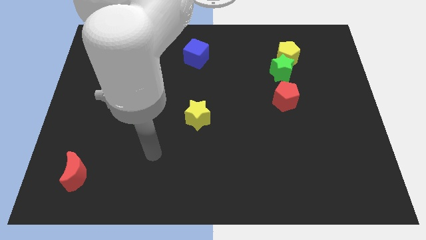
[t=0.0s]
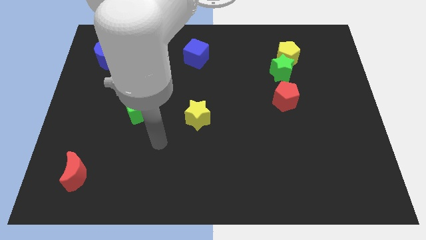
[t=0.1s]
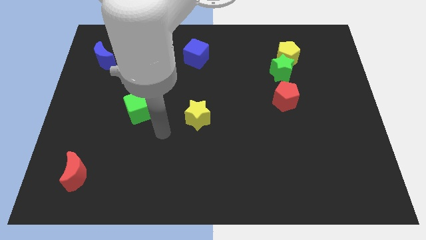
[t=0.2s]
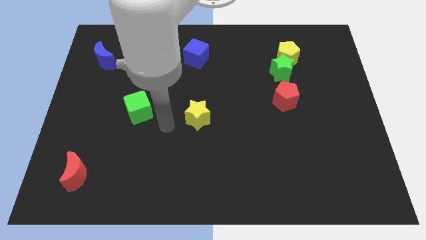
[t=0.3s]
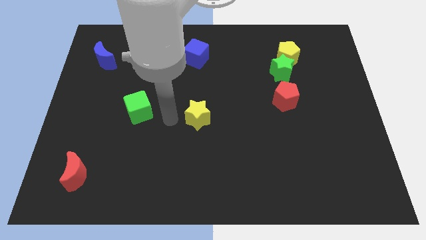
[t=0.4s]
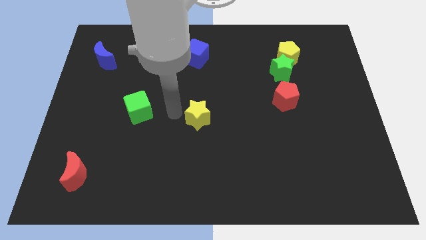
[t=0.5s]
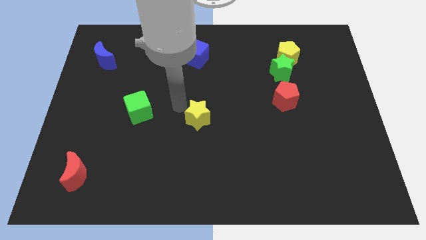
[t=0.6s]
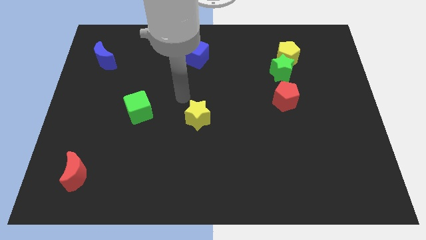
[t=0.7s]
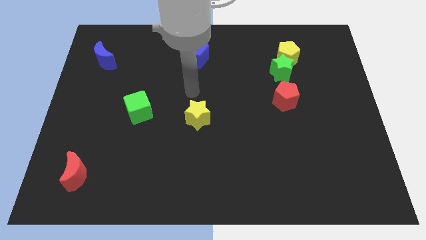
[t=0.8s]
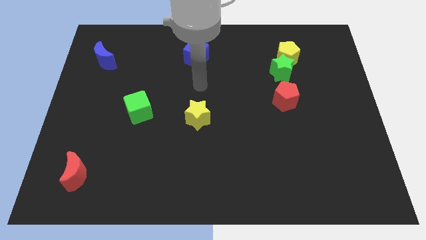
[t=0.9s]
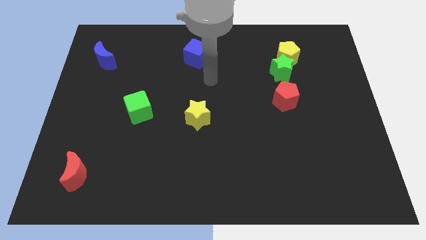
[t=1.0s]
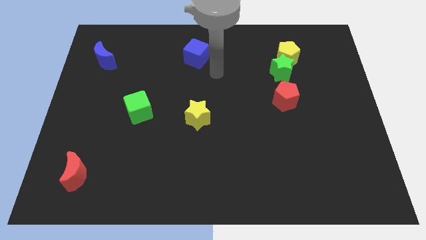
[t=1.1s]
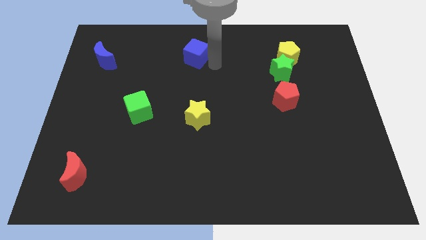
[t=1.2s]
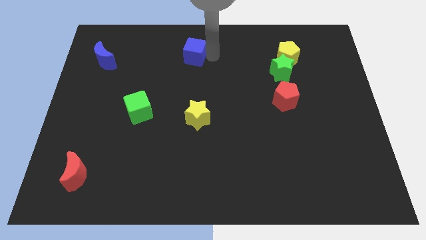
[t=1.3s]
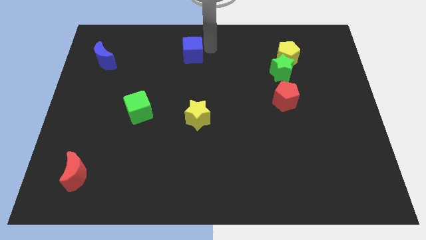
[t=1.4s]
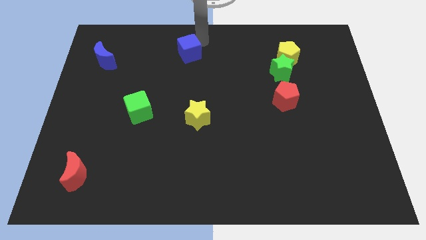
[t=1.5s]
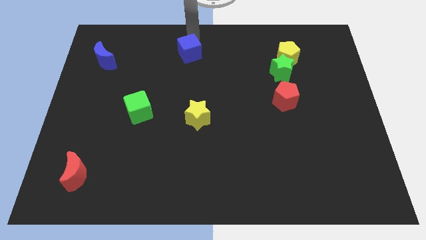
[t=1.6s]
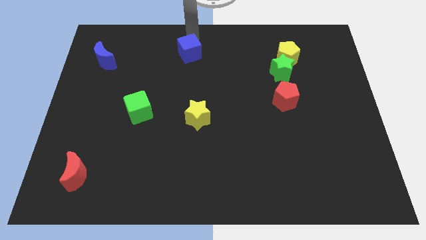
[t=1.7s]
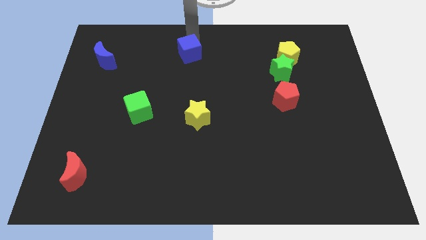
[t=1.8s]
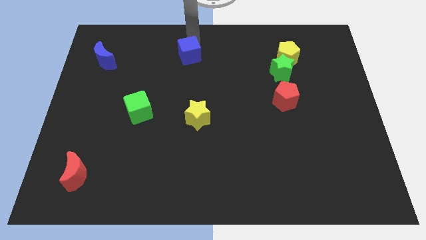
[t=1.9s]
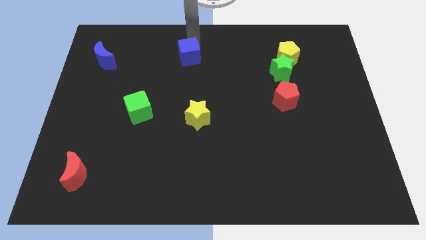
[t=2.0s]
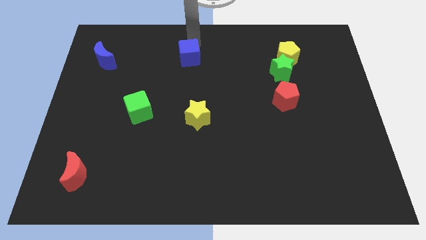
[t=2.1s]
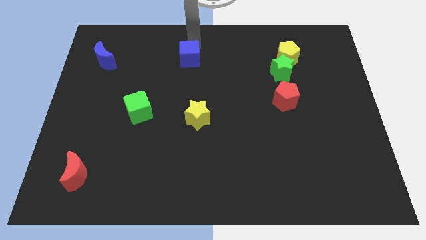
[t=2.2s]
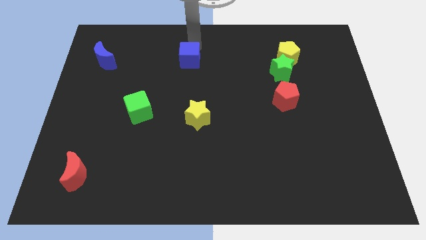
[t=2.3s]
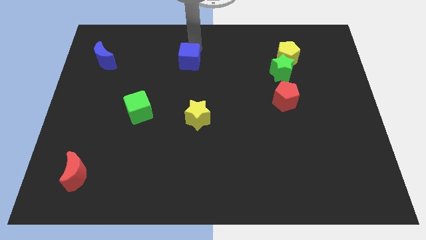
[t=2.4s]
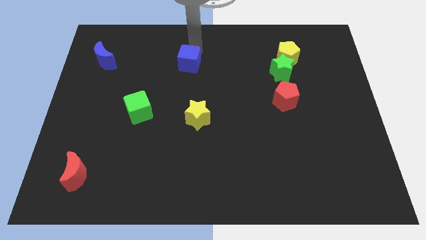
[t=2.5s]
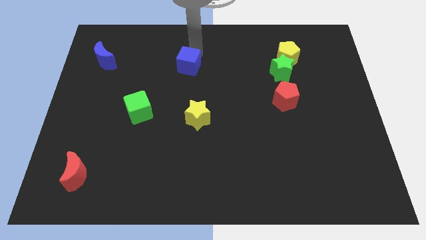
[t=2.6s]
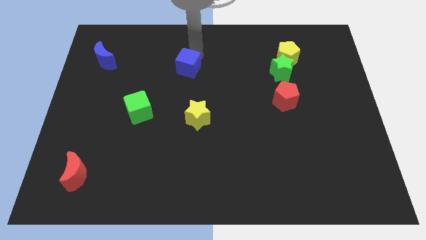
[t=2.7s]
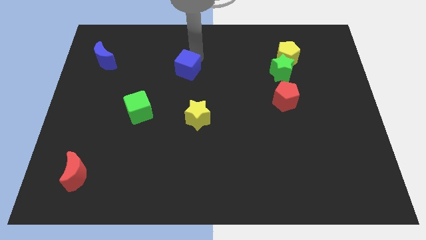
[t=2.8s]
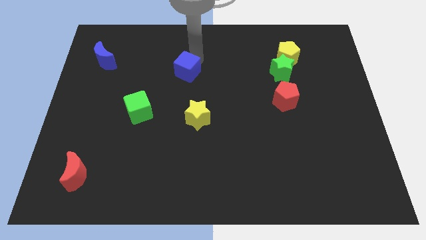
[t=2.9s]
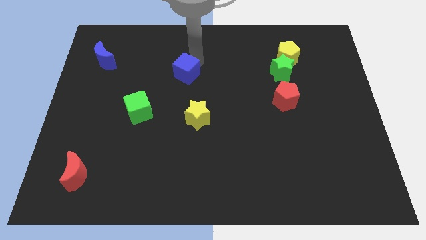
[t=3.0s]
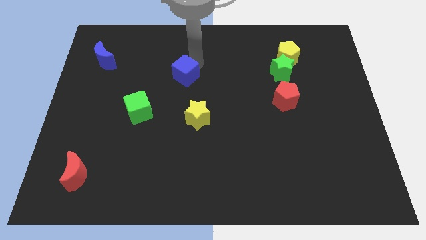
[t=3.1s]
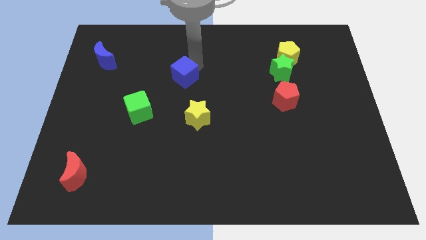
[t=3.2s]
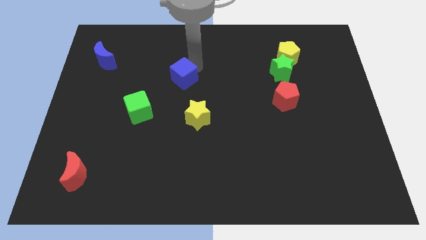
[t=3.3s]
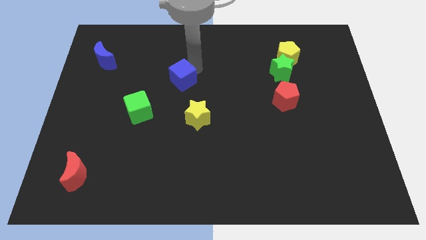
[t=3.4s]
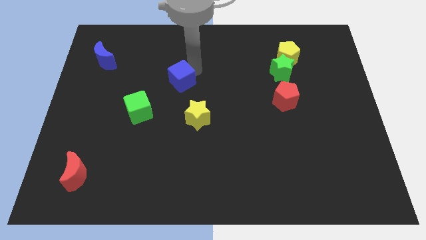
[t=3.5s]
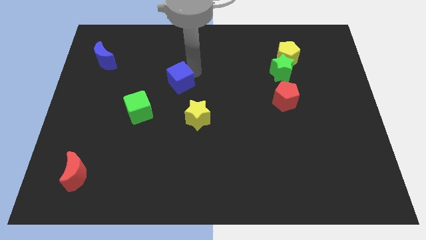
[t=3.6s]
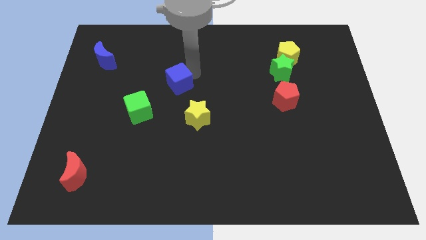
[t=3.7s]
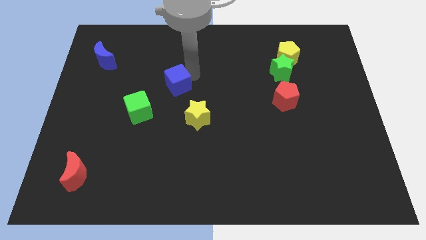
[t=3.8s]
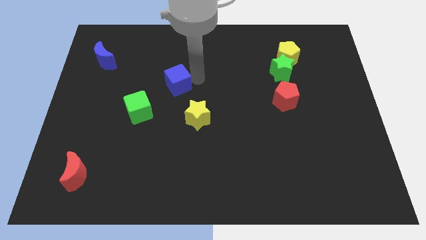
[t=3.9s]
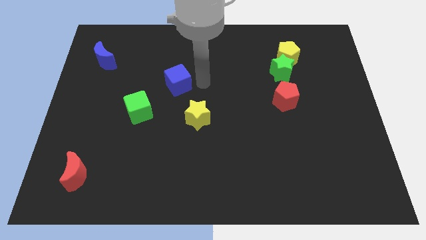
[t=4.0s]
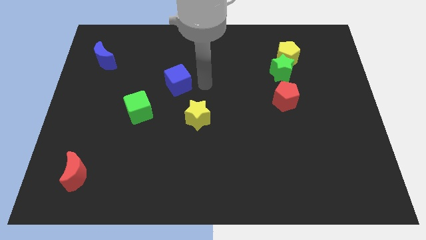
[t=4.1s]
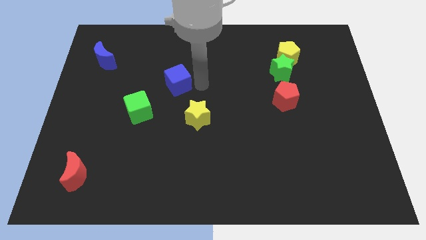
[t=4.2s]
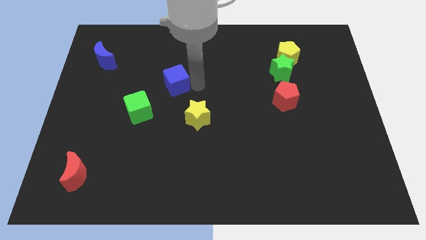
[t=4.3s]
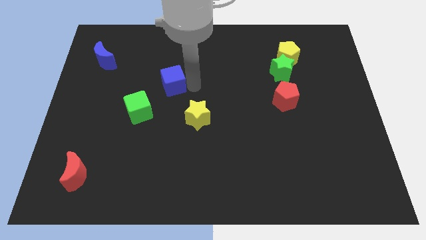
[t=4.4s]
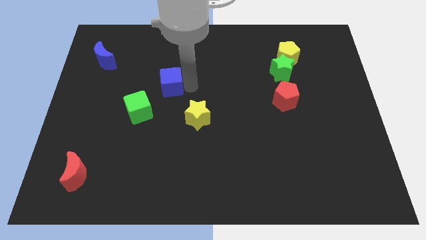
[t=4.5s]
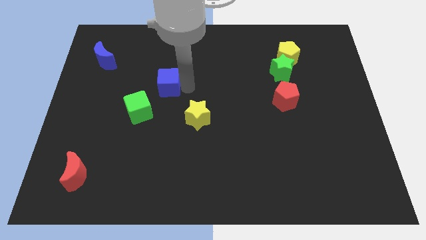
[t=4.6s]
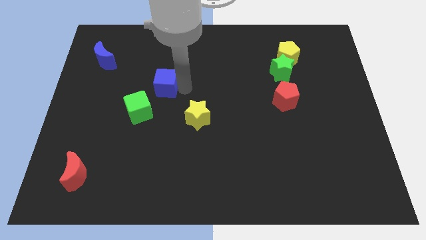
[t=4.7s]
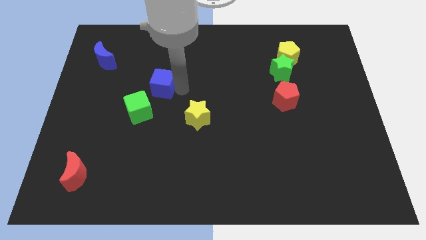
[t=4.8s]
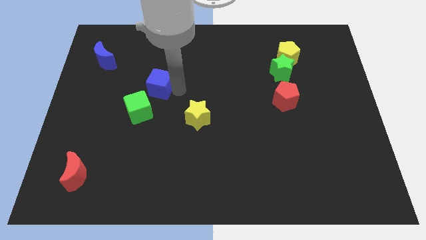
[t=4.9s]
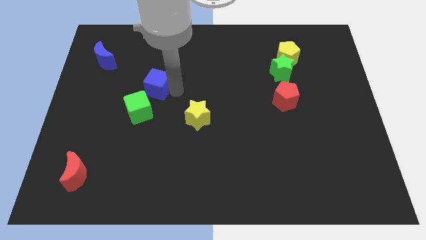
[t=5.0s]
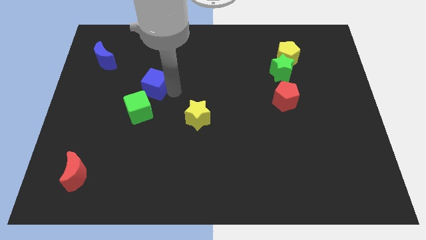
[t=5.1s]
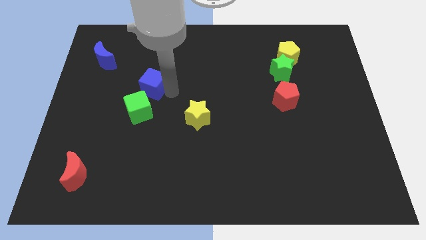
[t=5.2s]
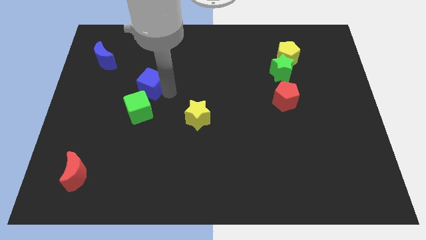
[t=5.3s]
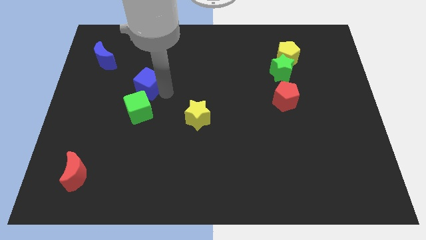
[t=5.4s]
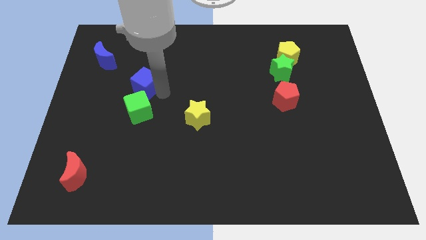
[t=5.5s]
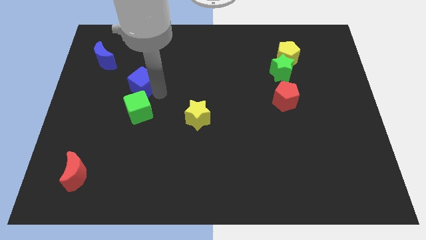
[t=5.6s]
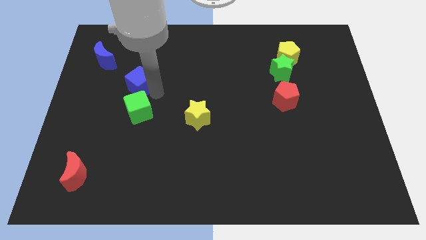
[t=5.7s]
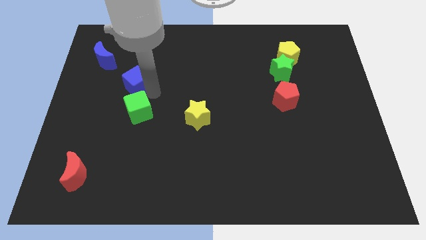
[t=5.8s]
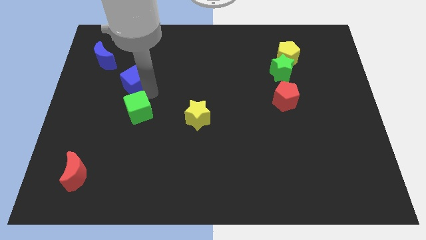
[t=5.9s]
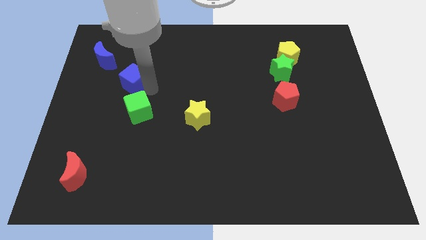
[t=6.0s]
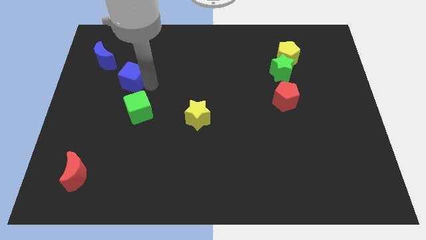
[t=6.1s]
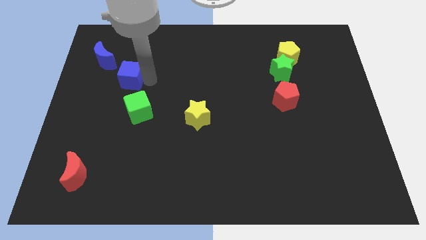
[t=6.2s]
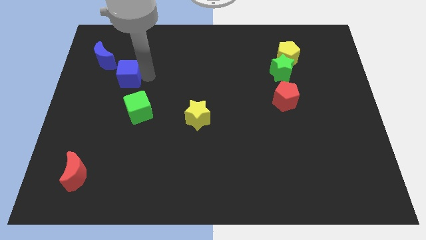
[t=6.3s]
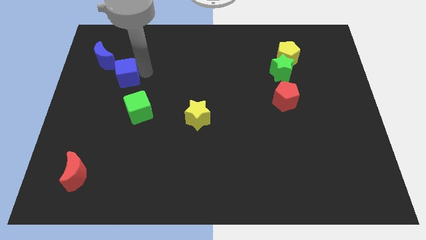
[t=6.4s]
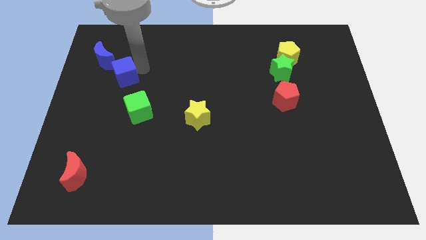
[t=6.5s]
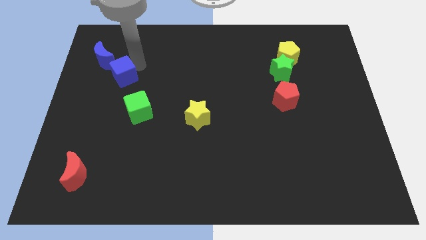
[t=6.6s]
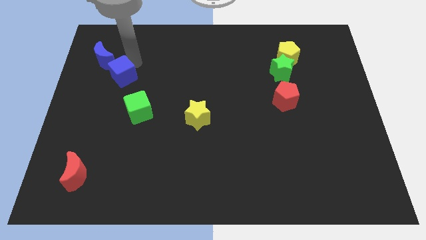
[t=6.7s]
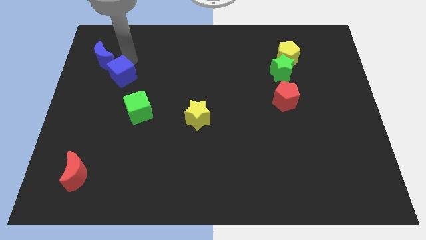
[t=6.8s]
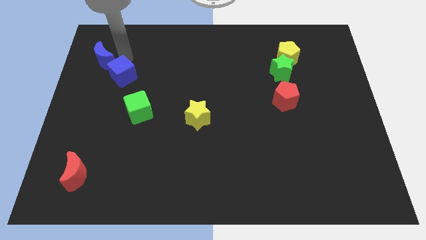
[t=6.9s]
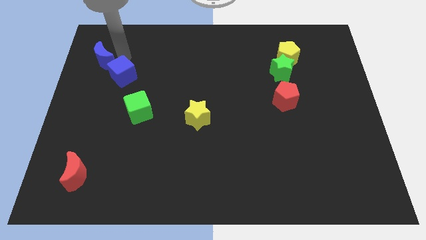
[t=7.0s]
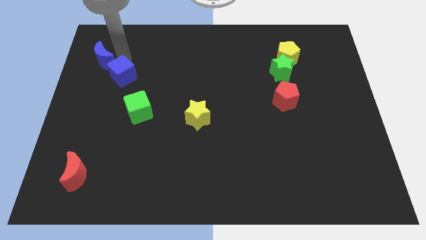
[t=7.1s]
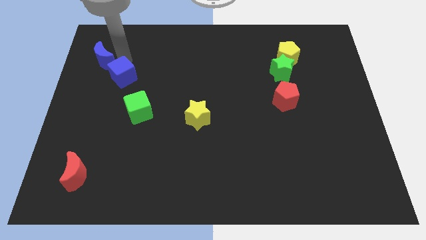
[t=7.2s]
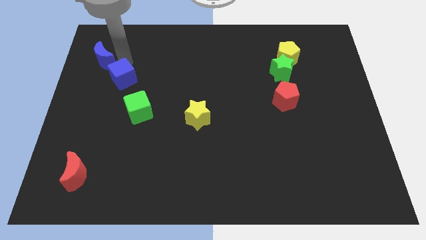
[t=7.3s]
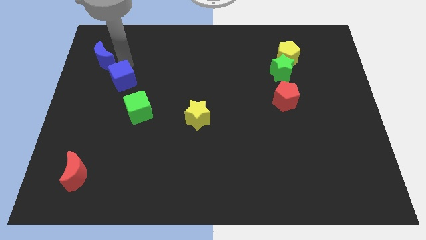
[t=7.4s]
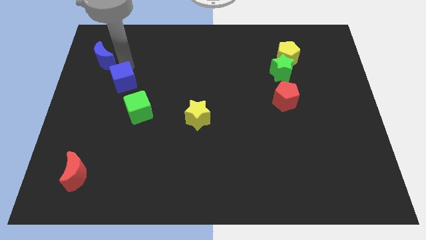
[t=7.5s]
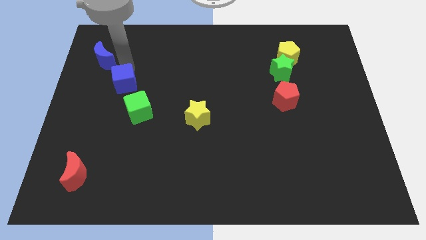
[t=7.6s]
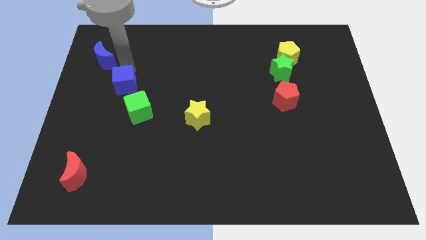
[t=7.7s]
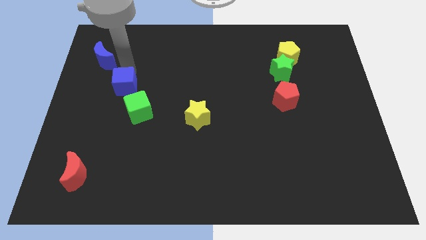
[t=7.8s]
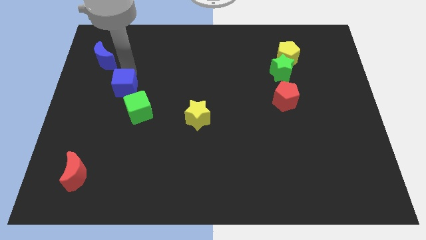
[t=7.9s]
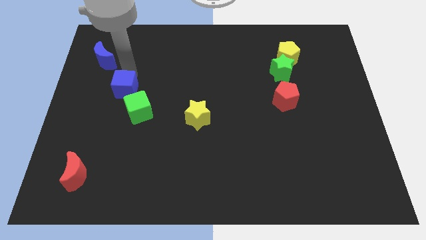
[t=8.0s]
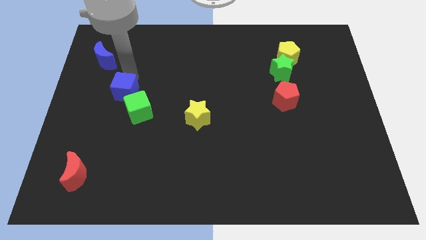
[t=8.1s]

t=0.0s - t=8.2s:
move the blue cube downwards and to the left

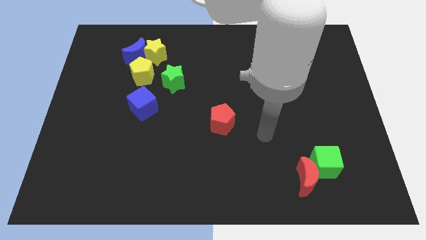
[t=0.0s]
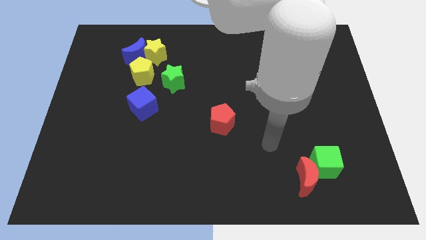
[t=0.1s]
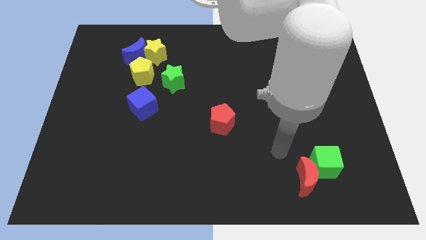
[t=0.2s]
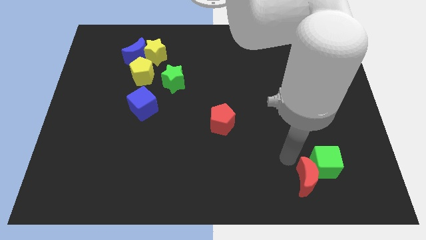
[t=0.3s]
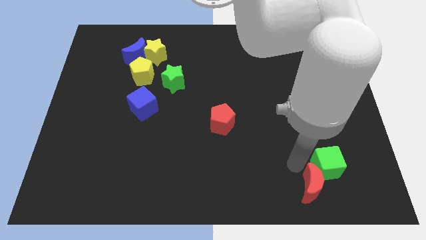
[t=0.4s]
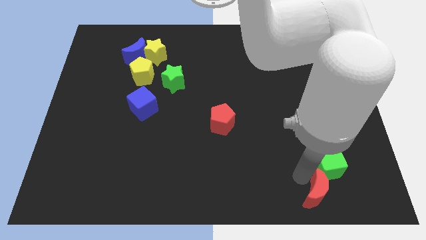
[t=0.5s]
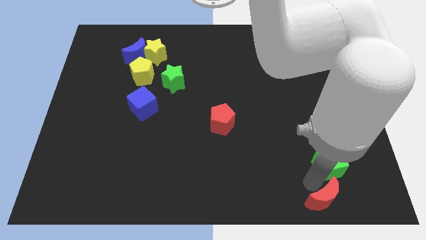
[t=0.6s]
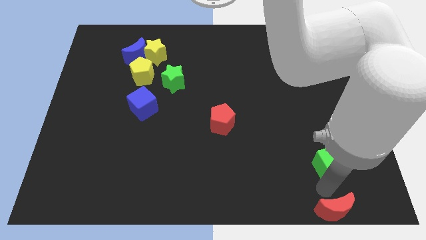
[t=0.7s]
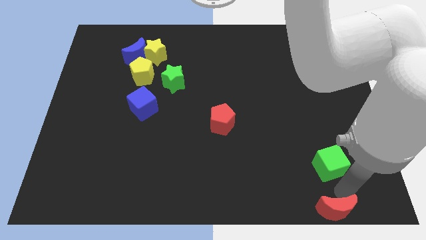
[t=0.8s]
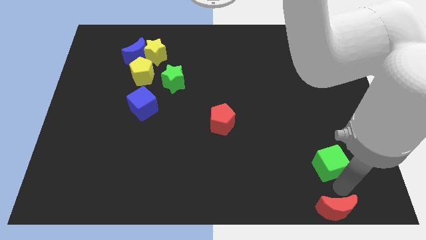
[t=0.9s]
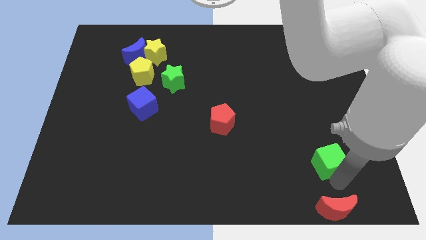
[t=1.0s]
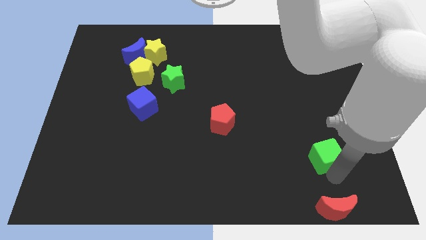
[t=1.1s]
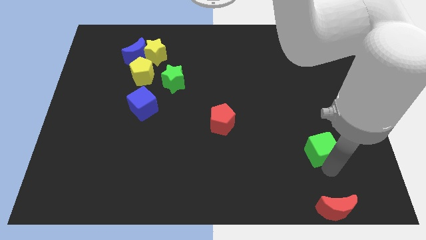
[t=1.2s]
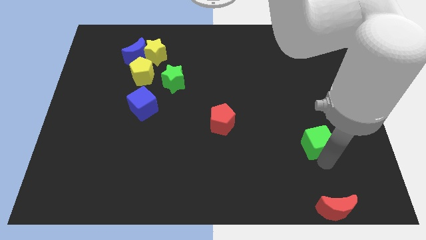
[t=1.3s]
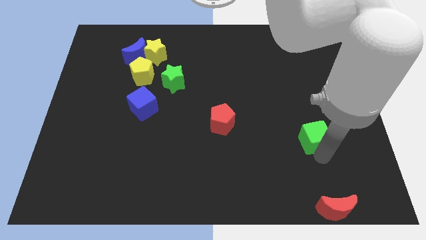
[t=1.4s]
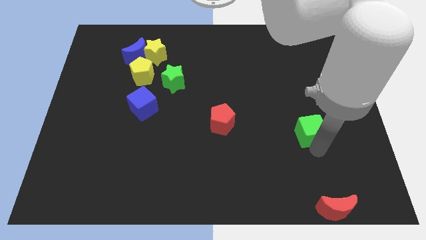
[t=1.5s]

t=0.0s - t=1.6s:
move the green cube slightly up
